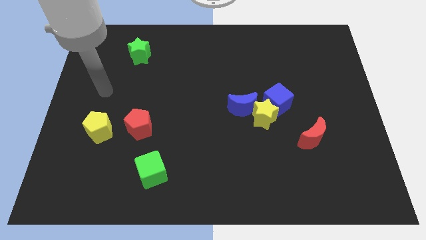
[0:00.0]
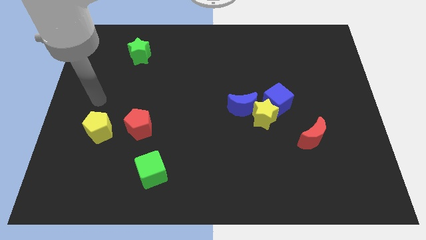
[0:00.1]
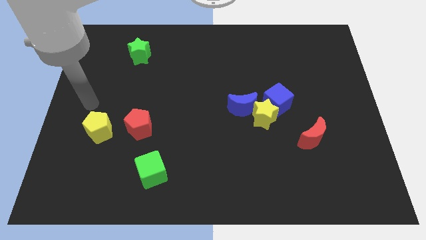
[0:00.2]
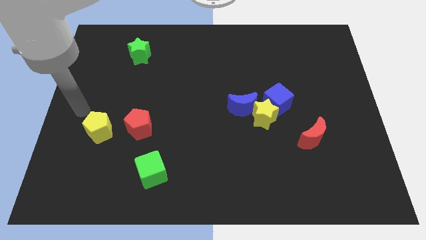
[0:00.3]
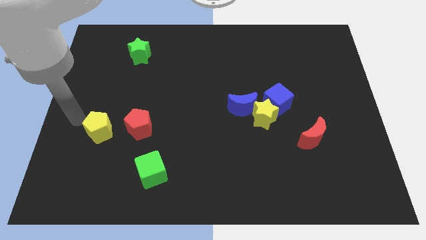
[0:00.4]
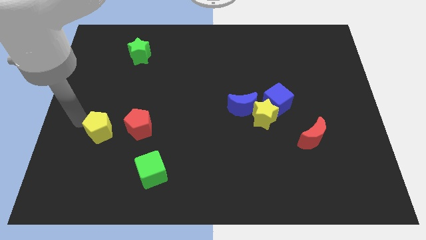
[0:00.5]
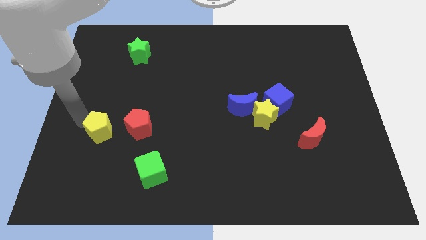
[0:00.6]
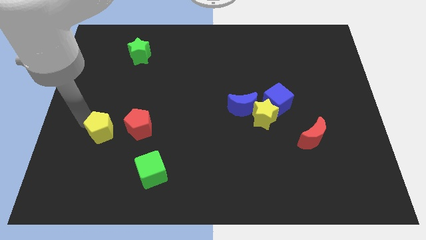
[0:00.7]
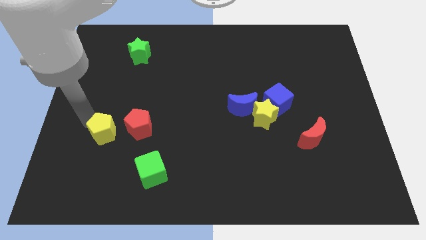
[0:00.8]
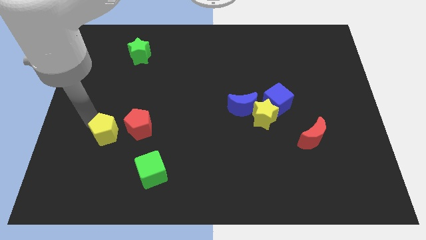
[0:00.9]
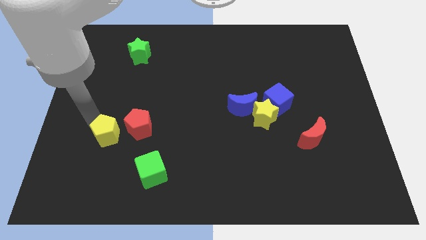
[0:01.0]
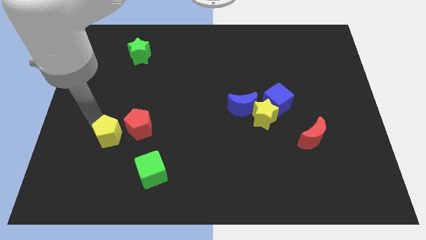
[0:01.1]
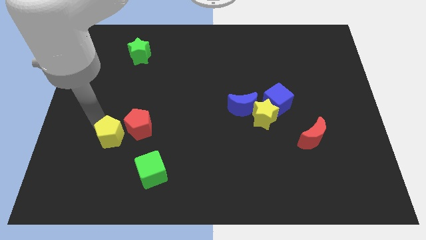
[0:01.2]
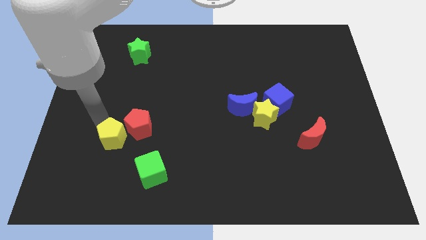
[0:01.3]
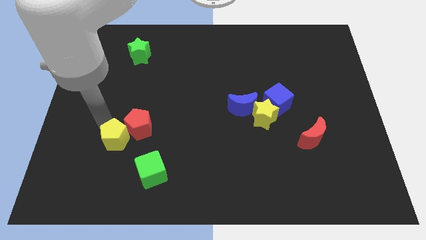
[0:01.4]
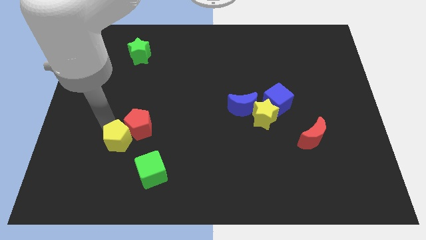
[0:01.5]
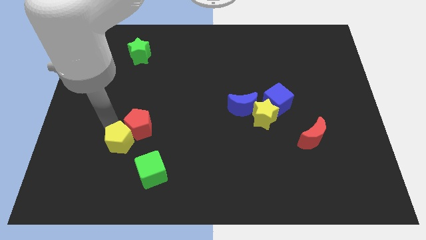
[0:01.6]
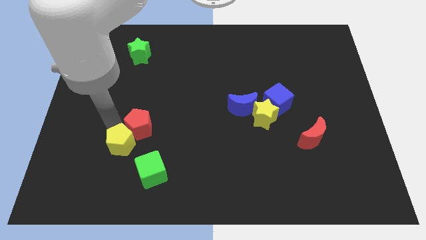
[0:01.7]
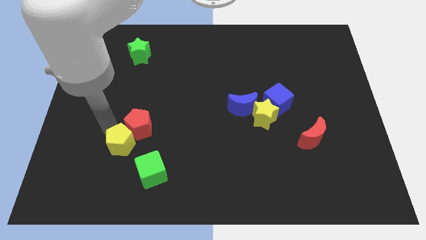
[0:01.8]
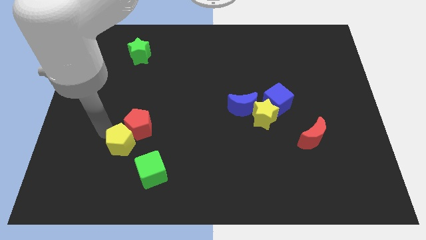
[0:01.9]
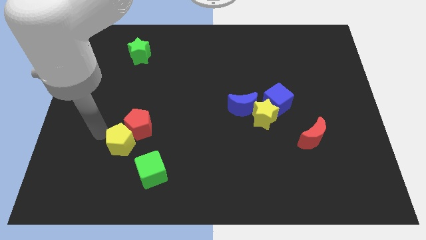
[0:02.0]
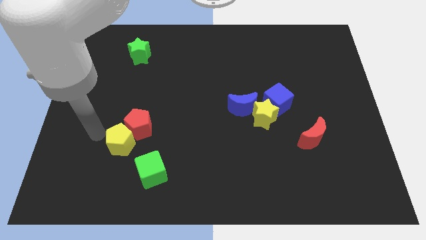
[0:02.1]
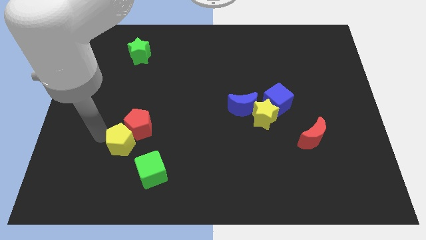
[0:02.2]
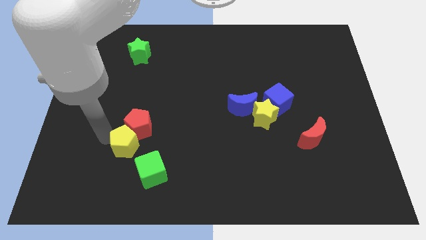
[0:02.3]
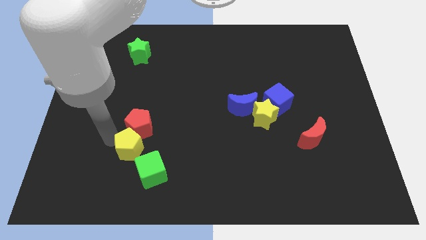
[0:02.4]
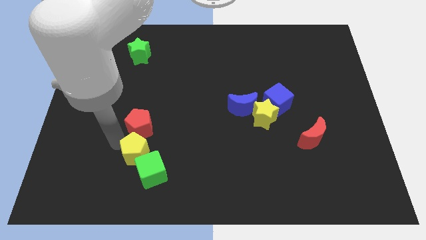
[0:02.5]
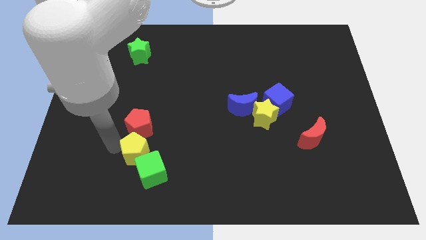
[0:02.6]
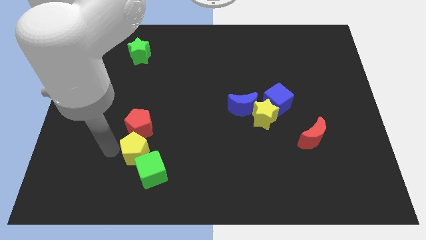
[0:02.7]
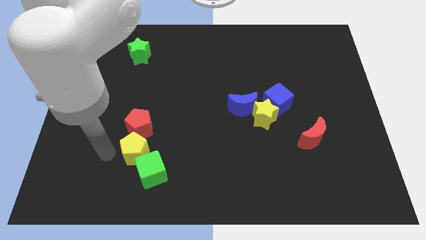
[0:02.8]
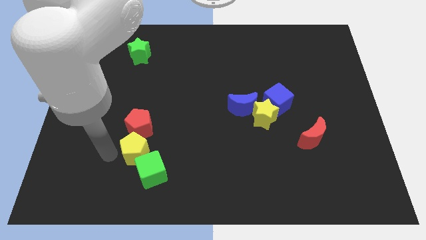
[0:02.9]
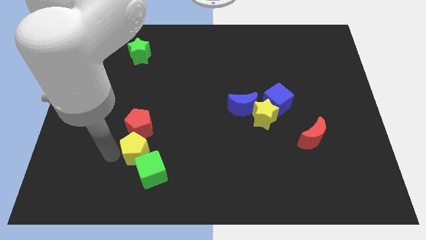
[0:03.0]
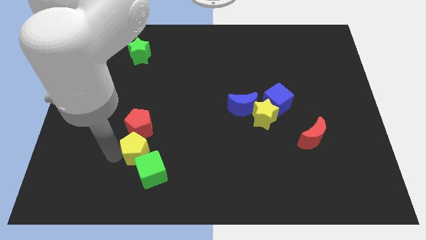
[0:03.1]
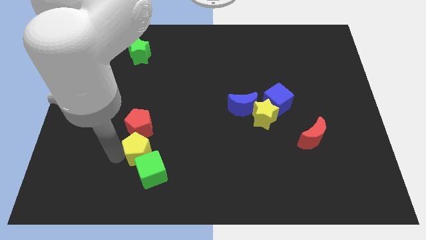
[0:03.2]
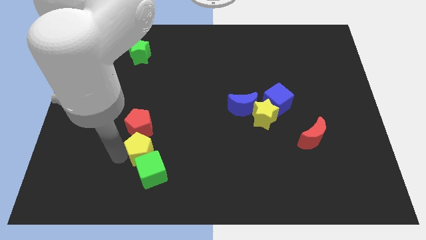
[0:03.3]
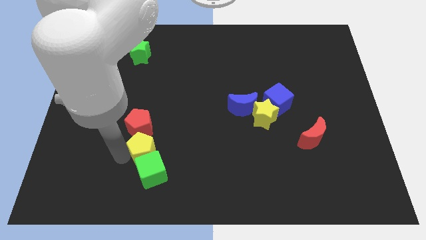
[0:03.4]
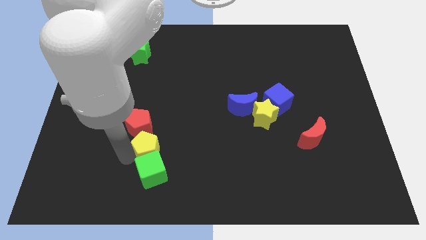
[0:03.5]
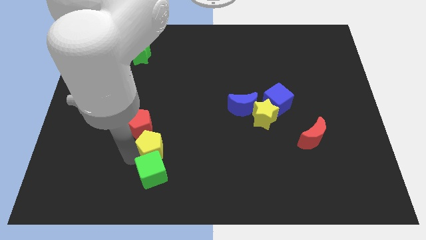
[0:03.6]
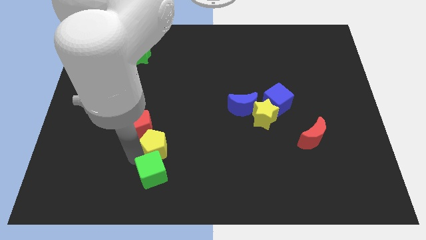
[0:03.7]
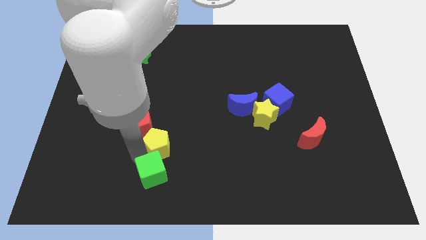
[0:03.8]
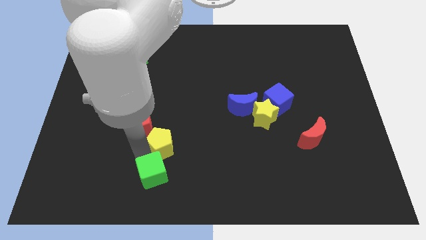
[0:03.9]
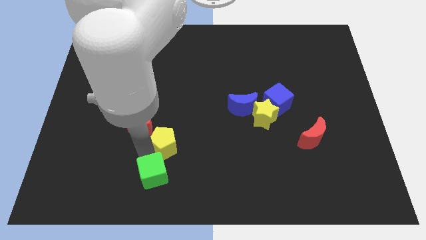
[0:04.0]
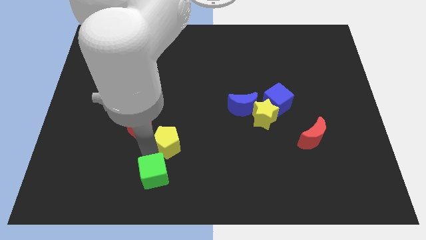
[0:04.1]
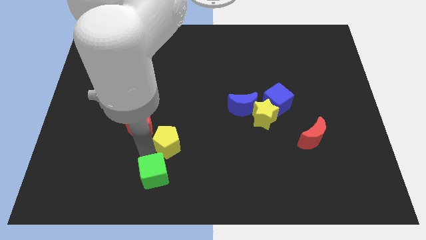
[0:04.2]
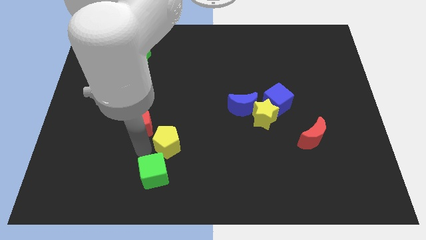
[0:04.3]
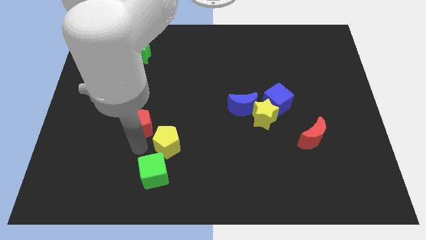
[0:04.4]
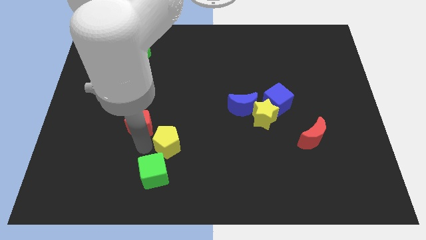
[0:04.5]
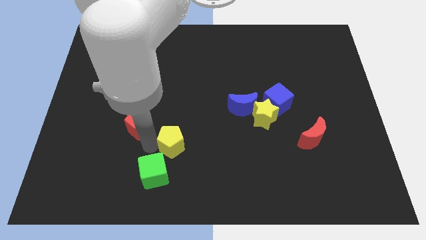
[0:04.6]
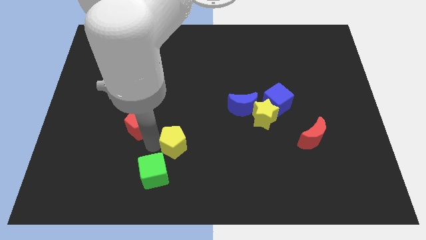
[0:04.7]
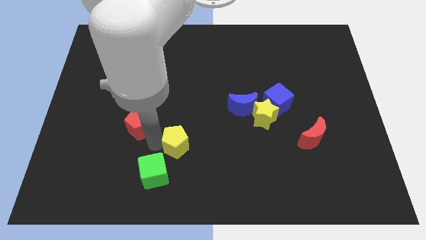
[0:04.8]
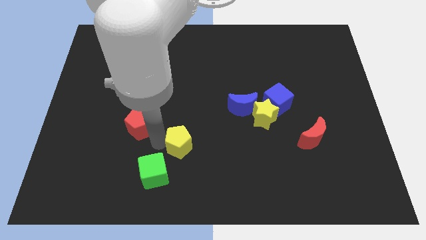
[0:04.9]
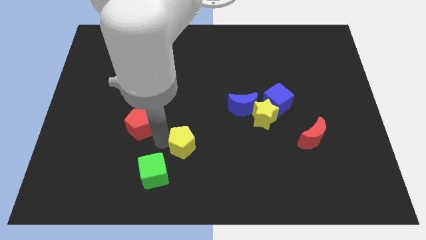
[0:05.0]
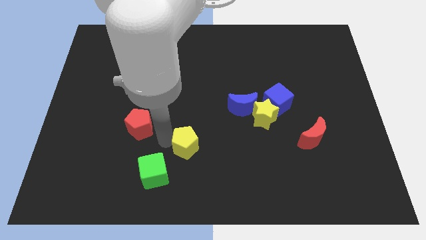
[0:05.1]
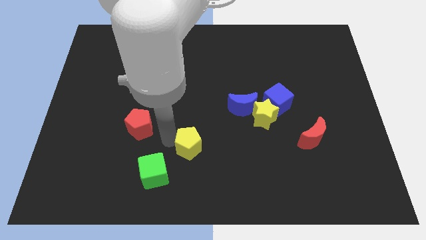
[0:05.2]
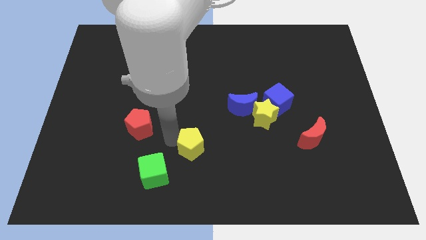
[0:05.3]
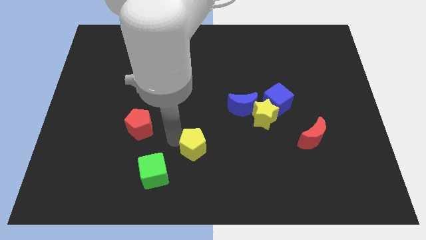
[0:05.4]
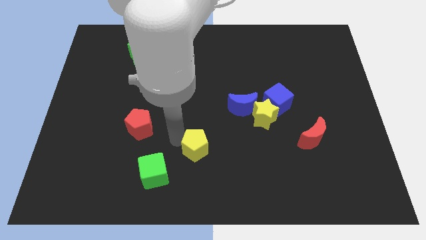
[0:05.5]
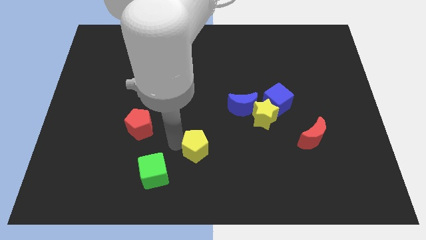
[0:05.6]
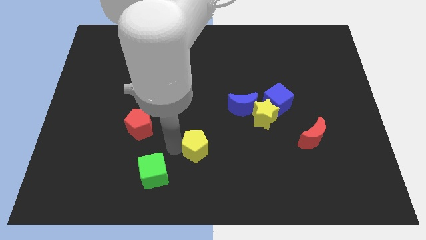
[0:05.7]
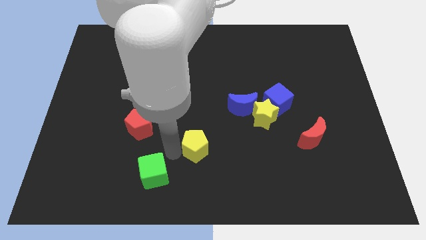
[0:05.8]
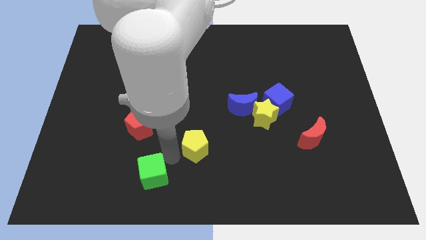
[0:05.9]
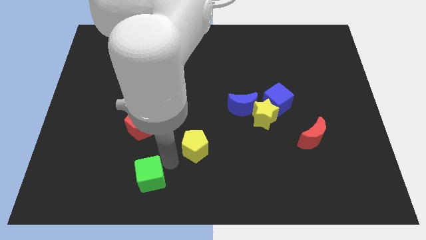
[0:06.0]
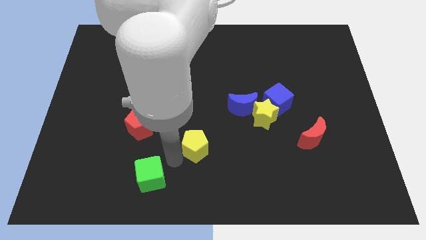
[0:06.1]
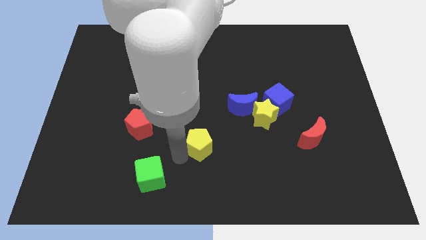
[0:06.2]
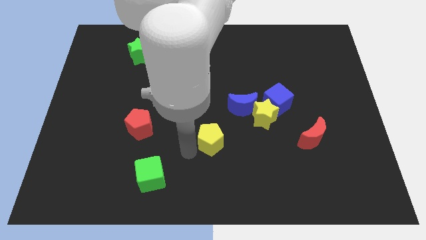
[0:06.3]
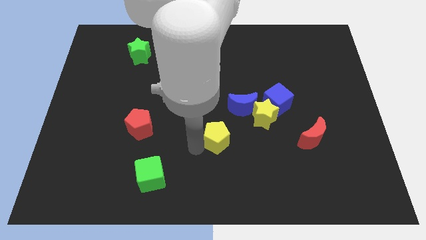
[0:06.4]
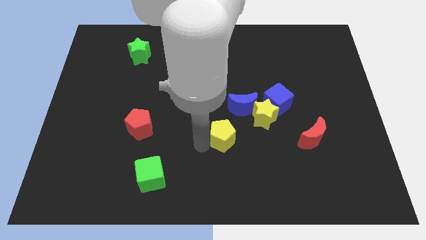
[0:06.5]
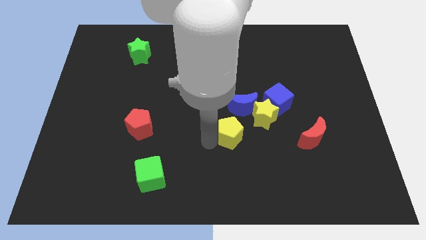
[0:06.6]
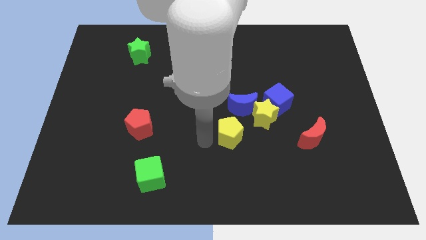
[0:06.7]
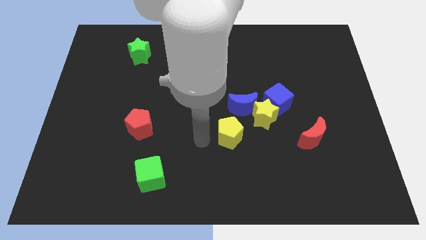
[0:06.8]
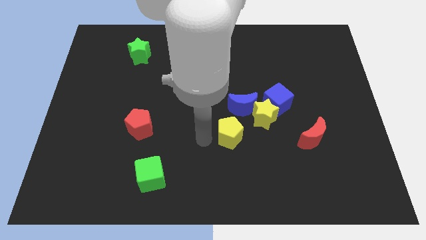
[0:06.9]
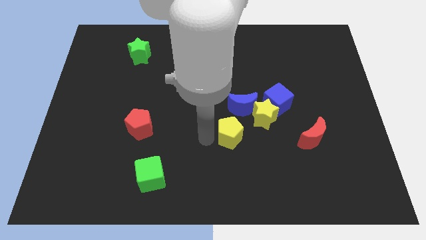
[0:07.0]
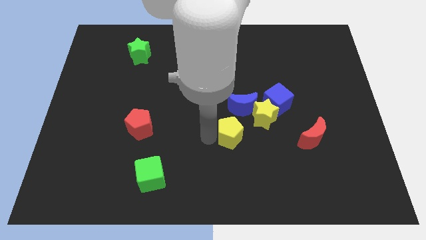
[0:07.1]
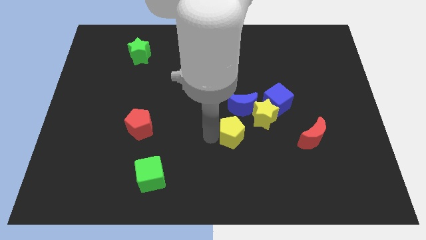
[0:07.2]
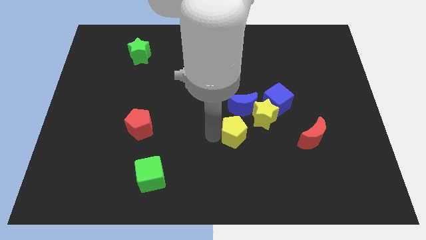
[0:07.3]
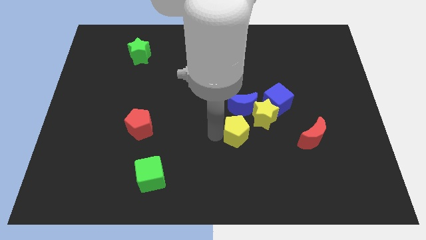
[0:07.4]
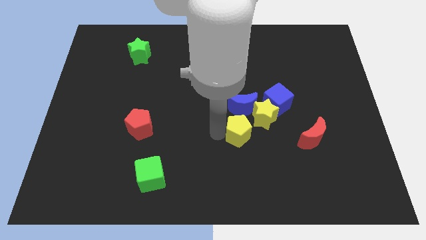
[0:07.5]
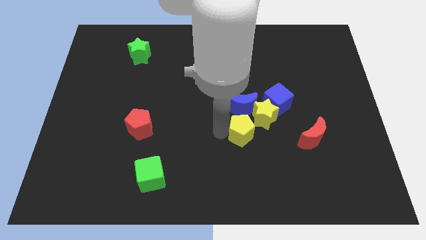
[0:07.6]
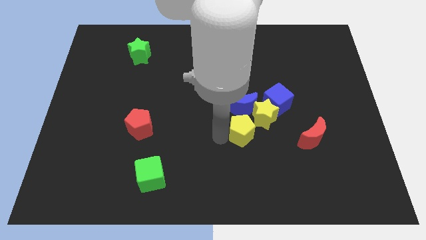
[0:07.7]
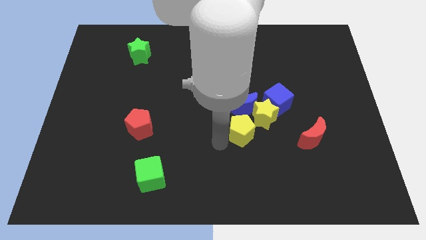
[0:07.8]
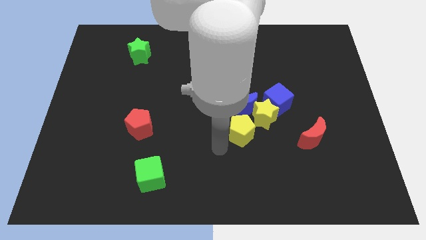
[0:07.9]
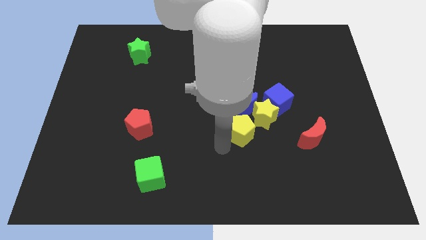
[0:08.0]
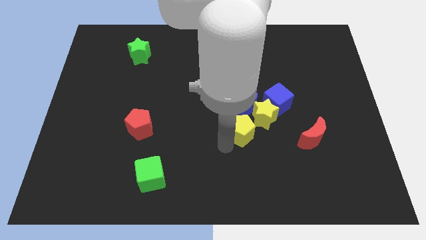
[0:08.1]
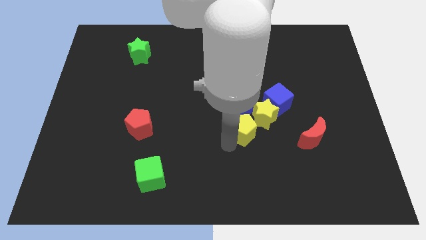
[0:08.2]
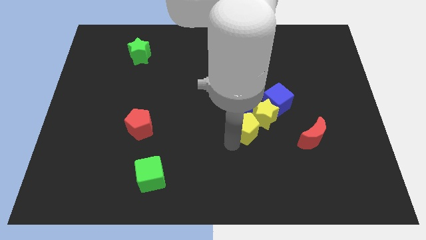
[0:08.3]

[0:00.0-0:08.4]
slide the yellow pentagon next to the yellow star
